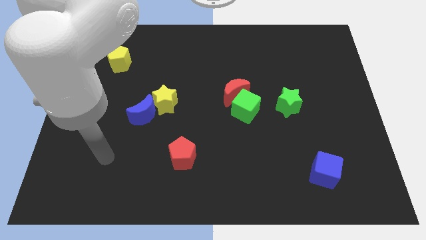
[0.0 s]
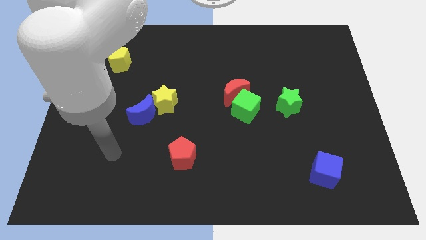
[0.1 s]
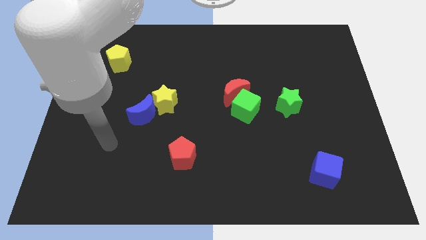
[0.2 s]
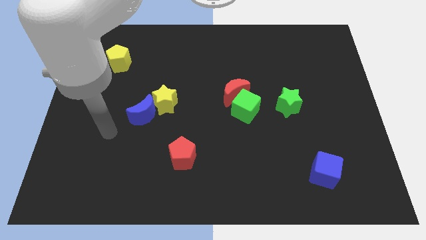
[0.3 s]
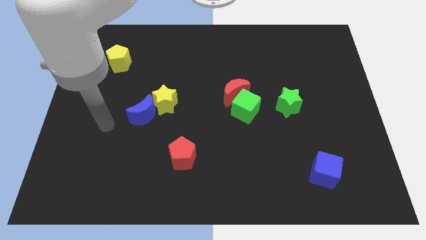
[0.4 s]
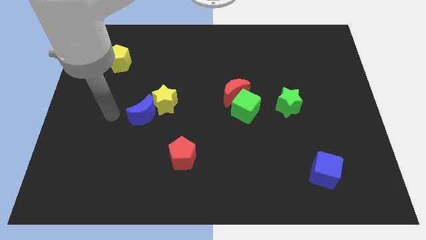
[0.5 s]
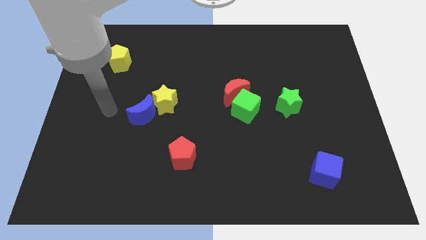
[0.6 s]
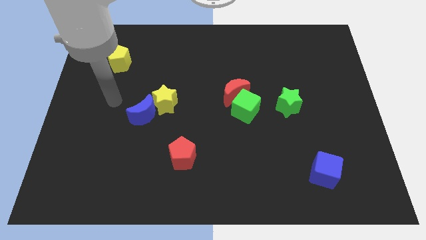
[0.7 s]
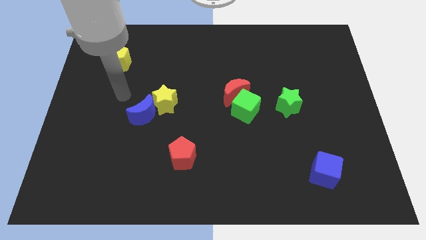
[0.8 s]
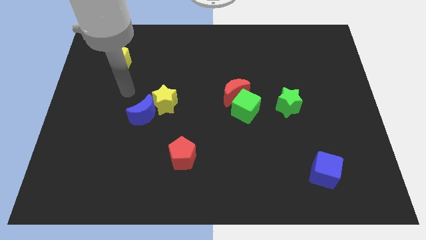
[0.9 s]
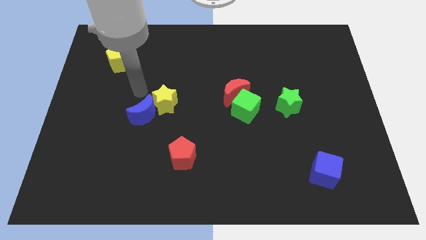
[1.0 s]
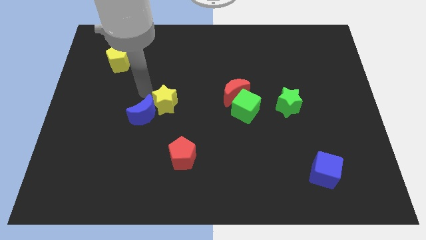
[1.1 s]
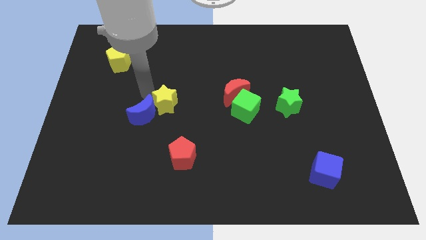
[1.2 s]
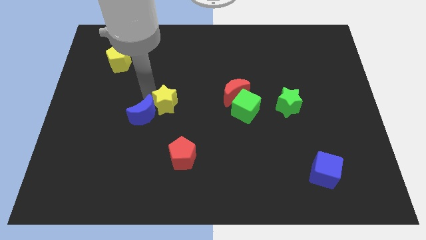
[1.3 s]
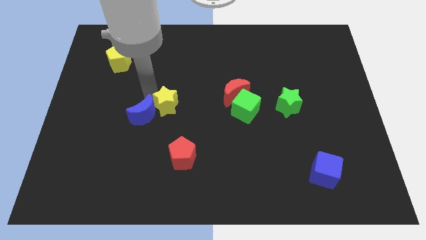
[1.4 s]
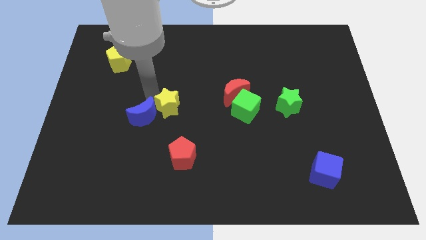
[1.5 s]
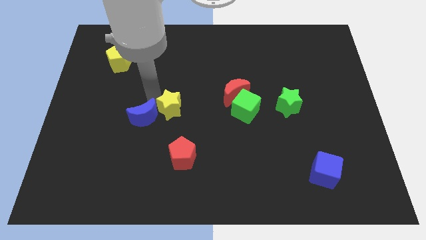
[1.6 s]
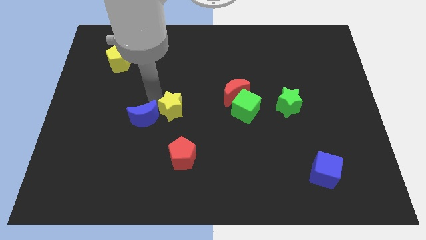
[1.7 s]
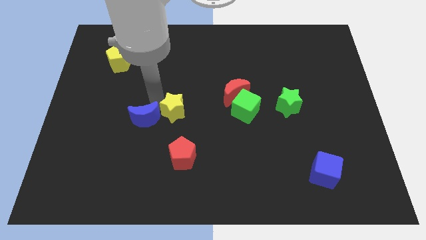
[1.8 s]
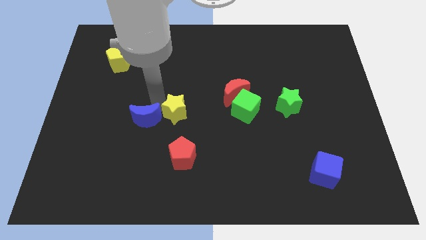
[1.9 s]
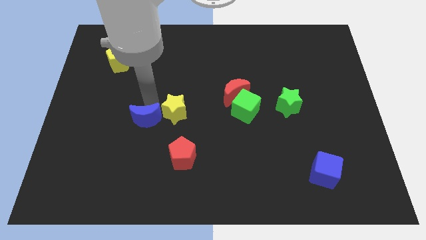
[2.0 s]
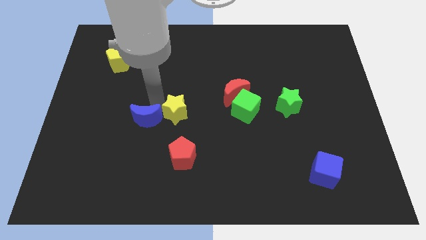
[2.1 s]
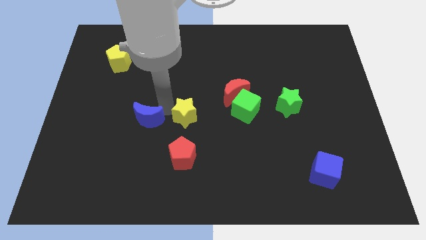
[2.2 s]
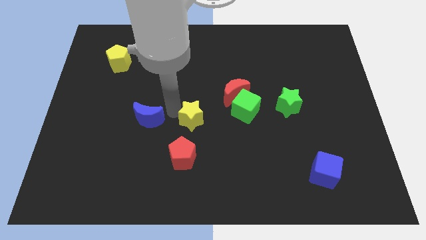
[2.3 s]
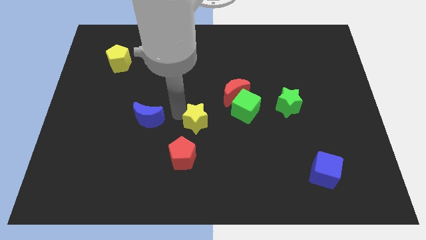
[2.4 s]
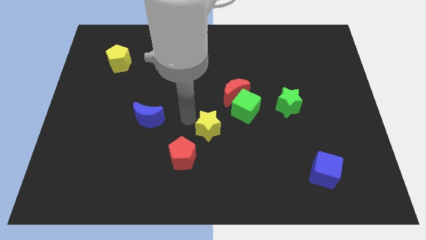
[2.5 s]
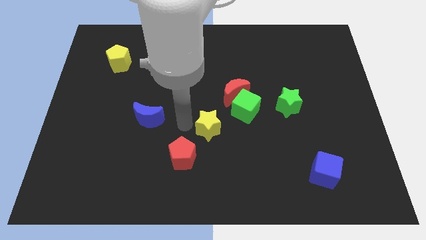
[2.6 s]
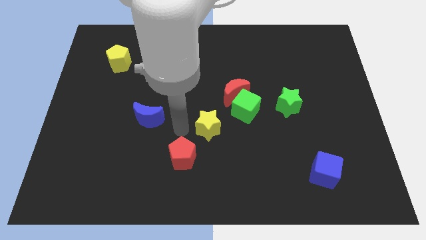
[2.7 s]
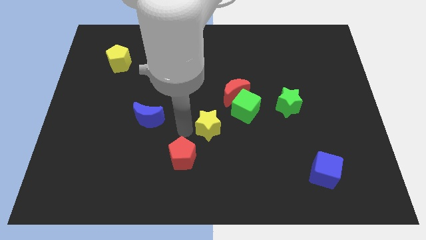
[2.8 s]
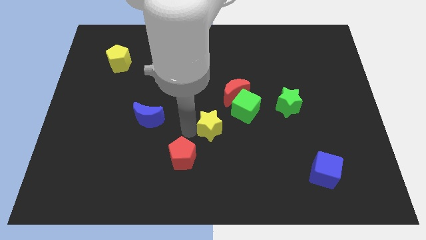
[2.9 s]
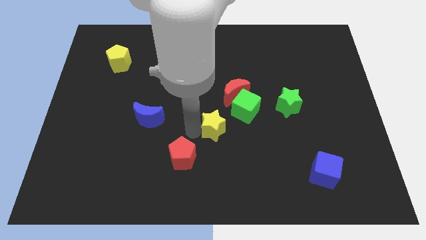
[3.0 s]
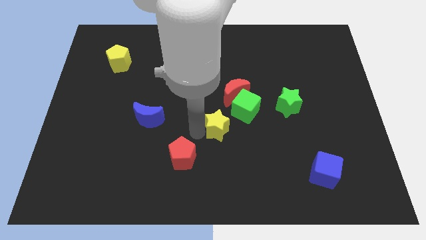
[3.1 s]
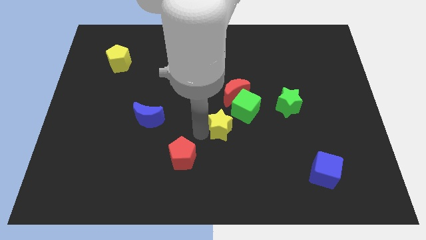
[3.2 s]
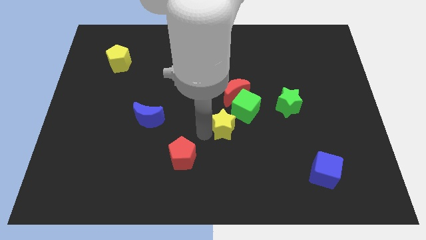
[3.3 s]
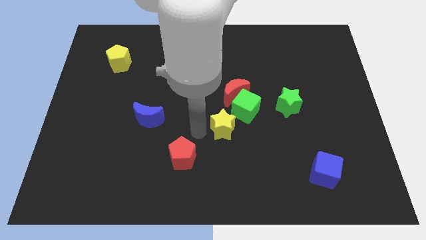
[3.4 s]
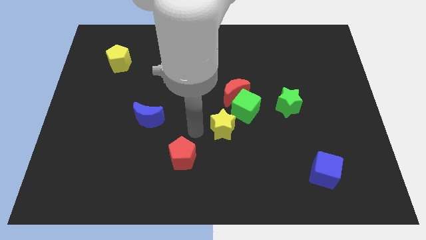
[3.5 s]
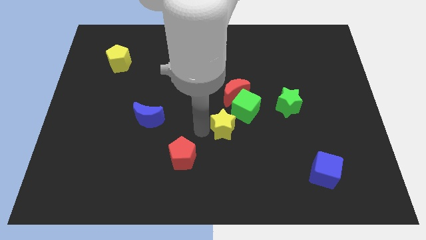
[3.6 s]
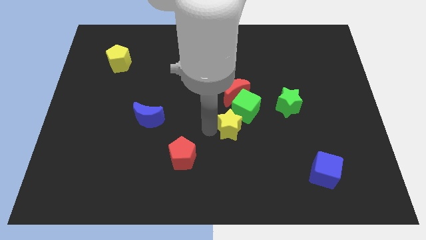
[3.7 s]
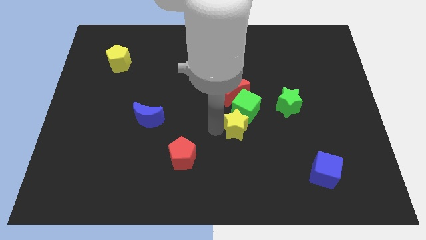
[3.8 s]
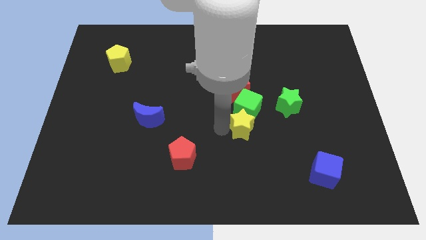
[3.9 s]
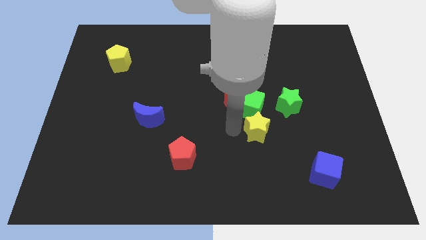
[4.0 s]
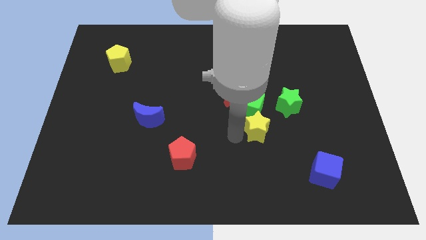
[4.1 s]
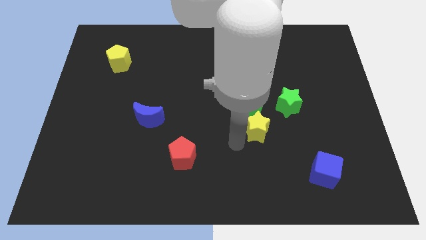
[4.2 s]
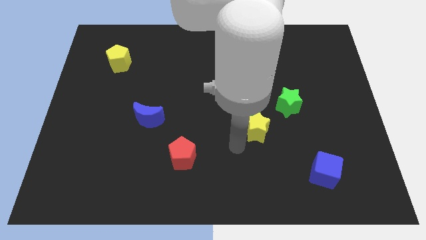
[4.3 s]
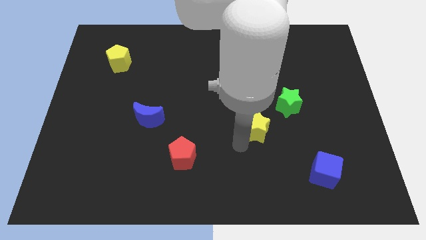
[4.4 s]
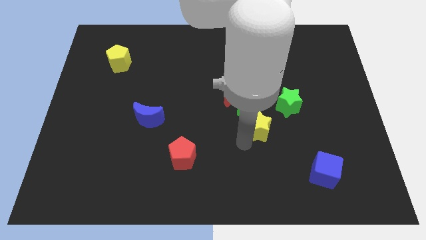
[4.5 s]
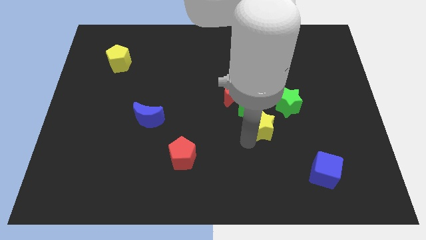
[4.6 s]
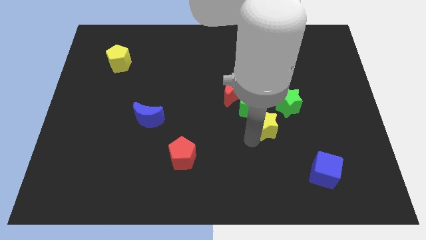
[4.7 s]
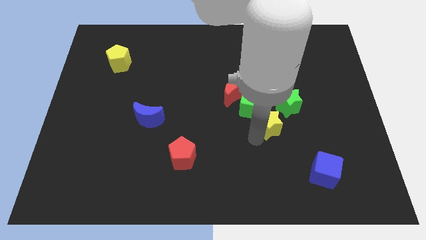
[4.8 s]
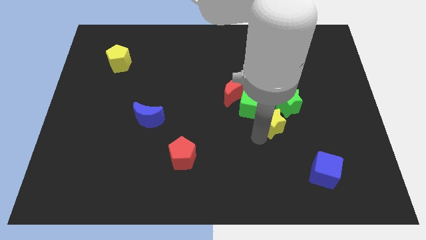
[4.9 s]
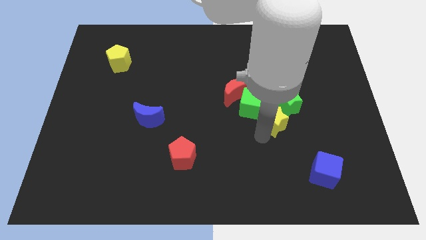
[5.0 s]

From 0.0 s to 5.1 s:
move the yellow star next to the green star
